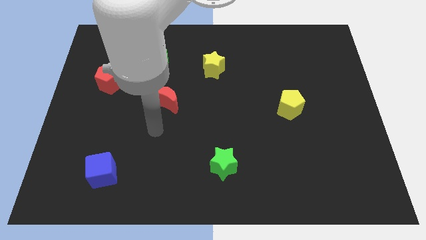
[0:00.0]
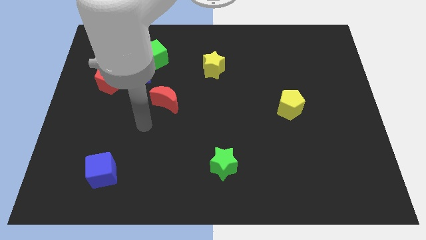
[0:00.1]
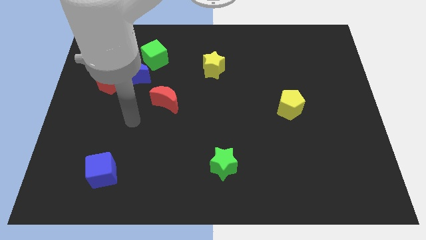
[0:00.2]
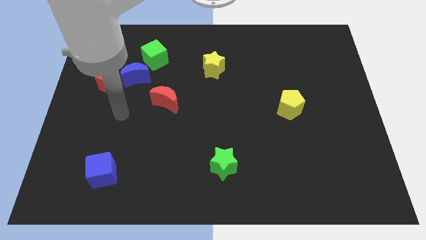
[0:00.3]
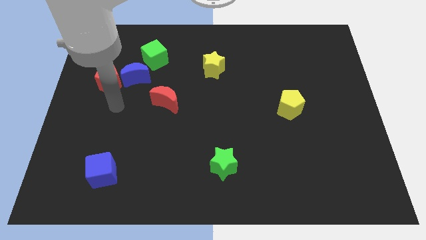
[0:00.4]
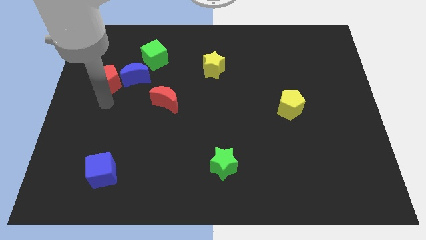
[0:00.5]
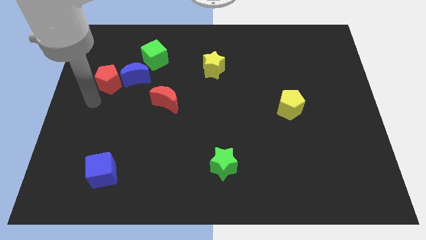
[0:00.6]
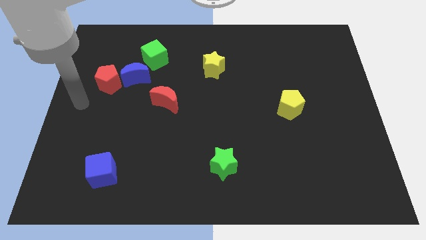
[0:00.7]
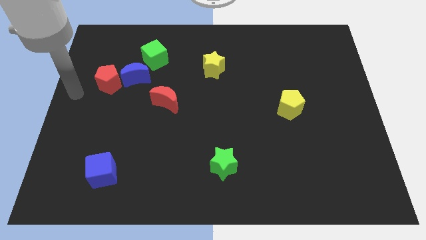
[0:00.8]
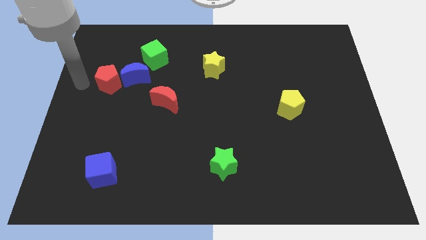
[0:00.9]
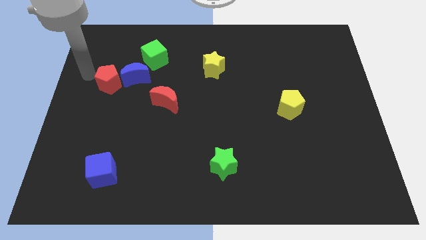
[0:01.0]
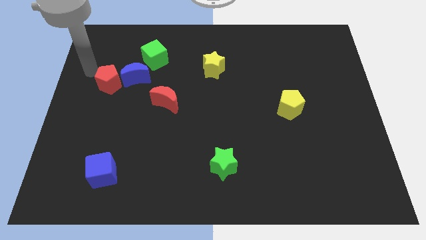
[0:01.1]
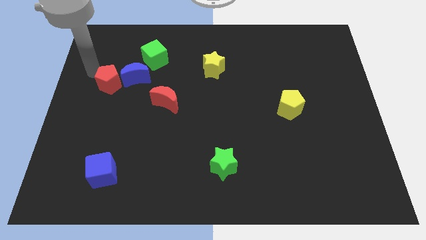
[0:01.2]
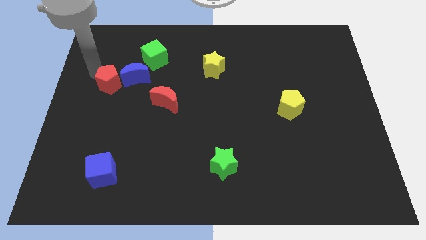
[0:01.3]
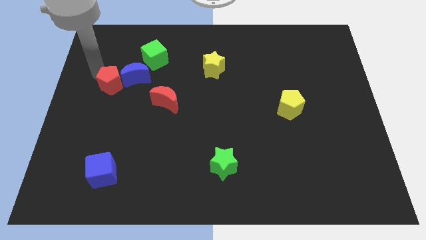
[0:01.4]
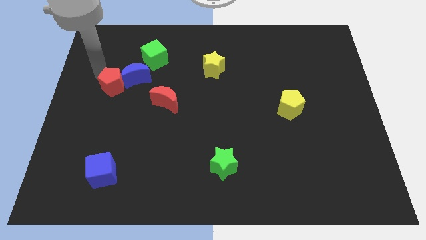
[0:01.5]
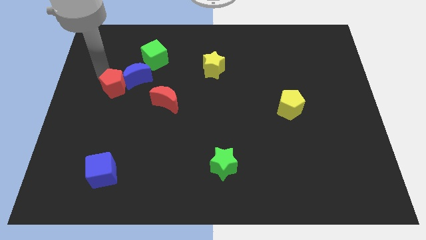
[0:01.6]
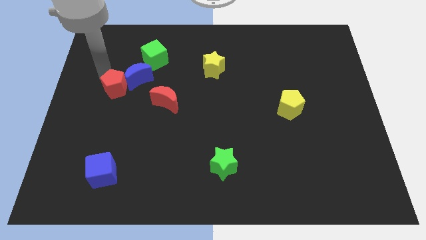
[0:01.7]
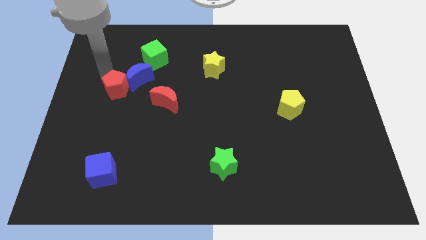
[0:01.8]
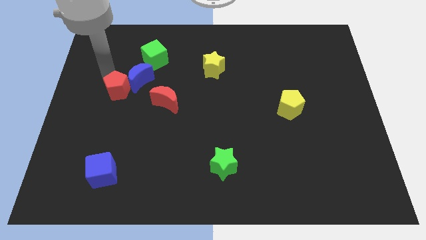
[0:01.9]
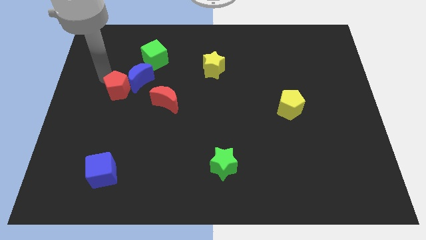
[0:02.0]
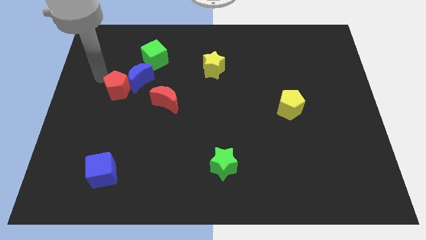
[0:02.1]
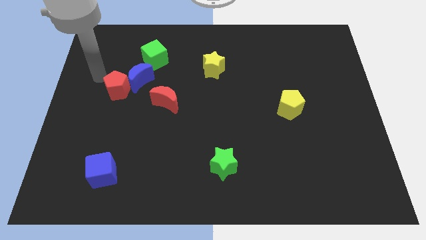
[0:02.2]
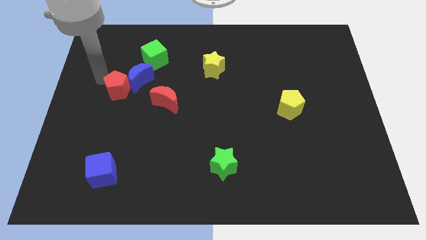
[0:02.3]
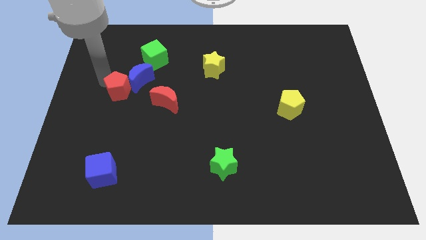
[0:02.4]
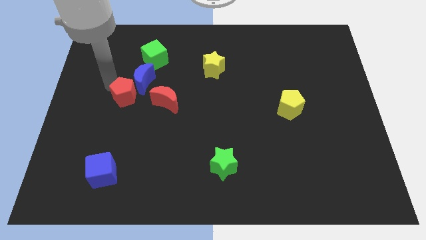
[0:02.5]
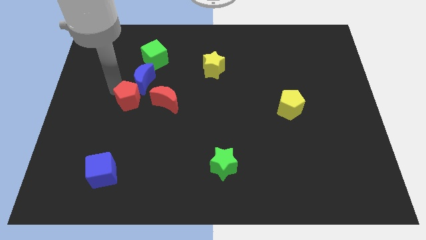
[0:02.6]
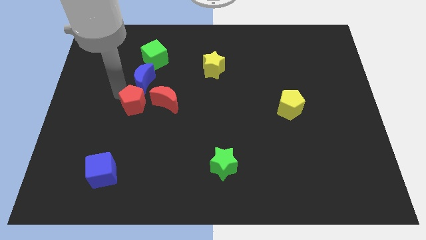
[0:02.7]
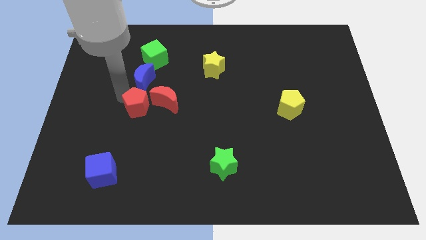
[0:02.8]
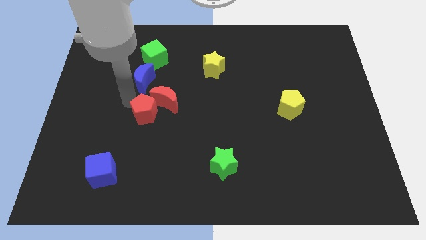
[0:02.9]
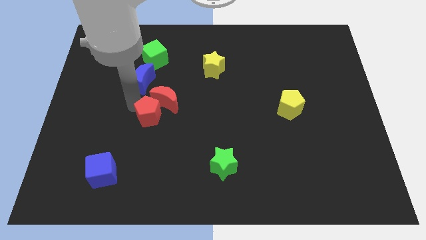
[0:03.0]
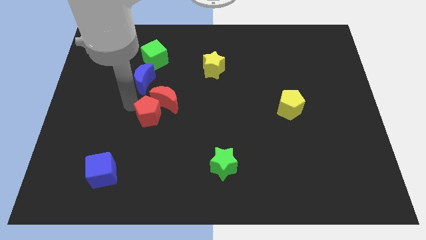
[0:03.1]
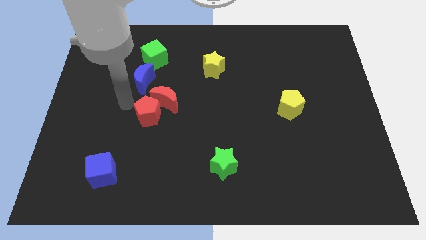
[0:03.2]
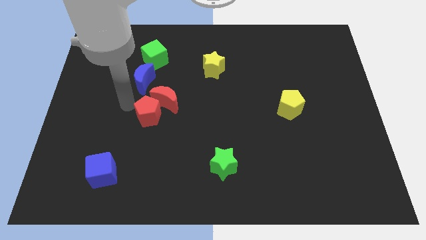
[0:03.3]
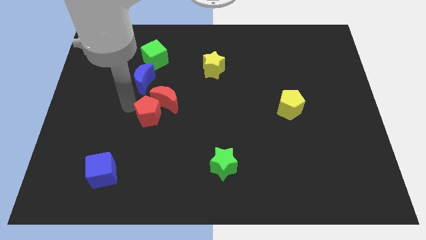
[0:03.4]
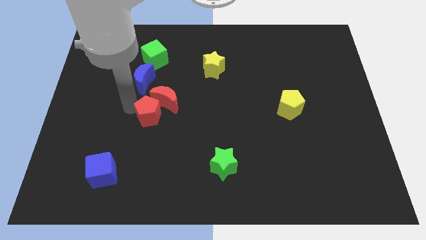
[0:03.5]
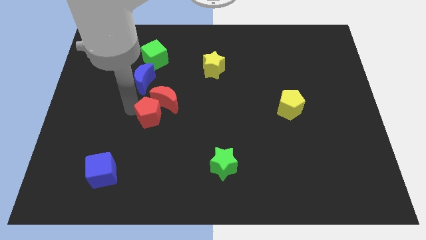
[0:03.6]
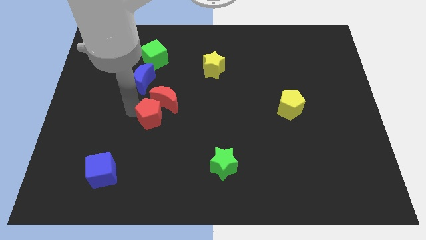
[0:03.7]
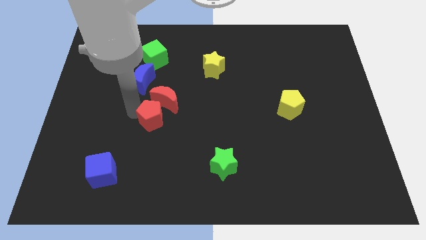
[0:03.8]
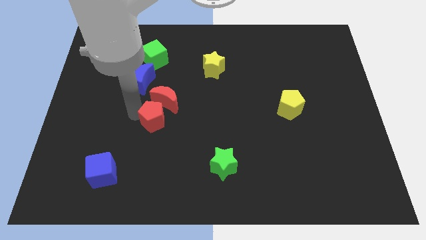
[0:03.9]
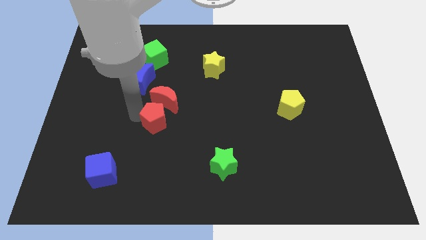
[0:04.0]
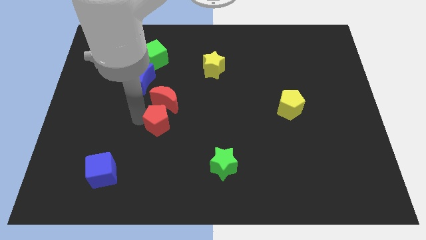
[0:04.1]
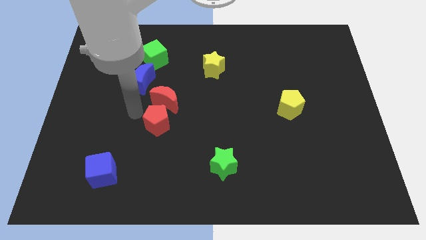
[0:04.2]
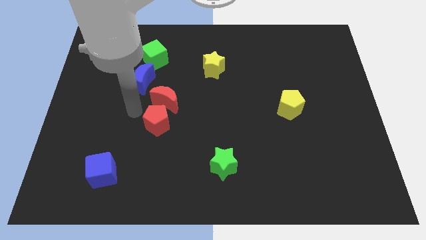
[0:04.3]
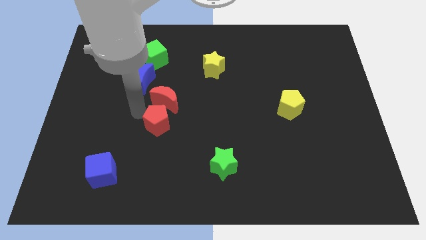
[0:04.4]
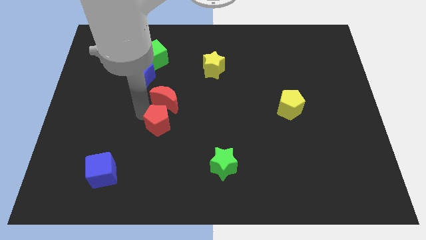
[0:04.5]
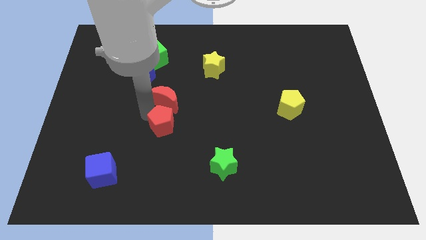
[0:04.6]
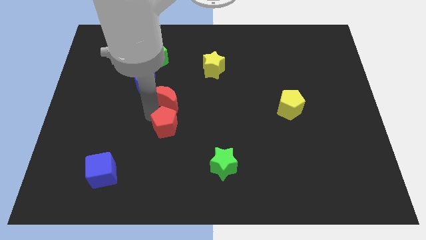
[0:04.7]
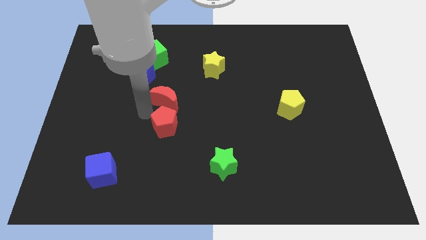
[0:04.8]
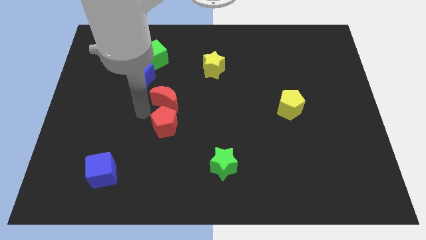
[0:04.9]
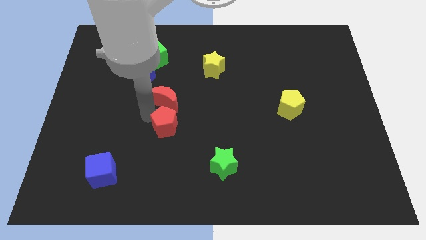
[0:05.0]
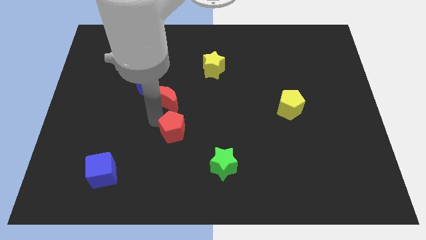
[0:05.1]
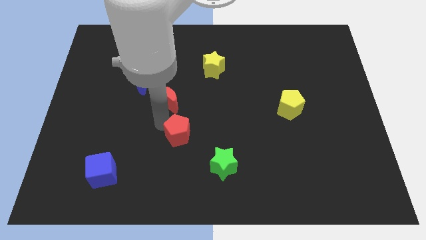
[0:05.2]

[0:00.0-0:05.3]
slide the red pentagon to the top left side of the green star

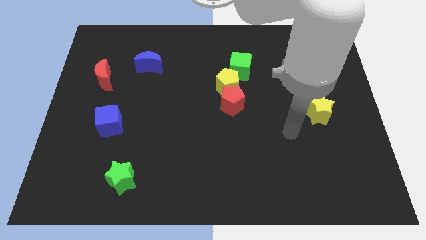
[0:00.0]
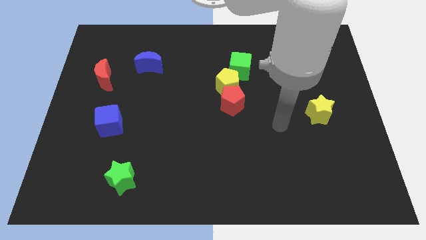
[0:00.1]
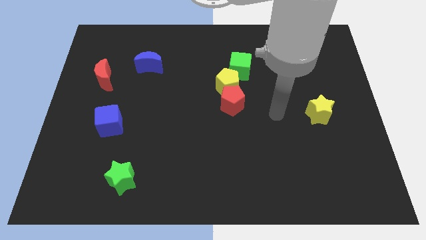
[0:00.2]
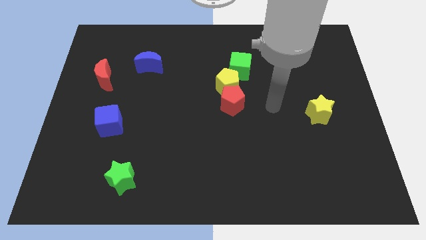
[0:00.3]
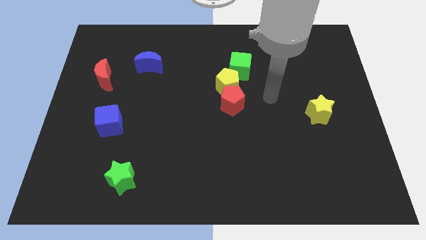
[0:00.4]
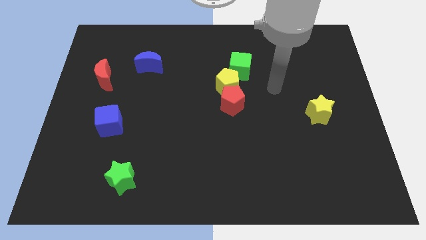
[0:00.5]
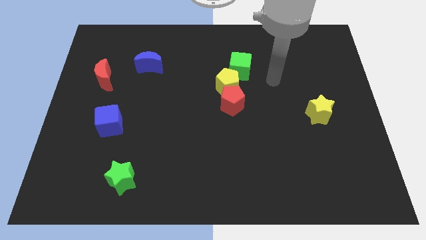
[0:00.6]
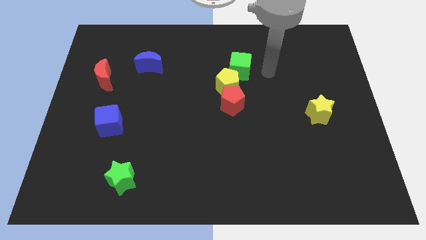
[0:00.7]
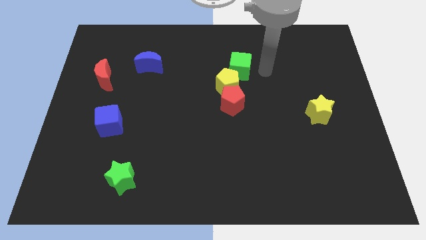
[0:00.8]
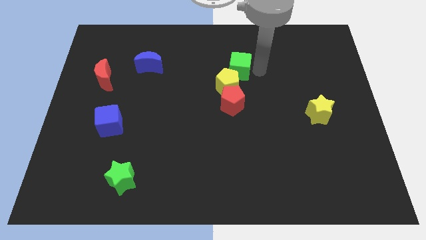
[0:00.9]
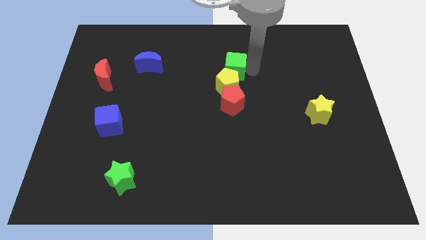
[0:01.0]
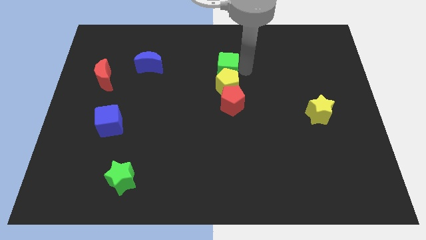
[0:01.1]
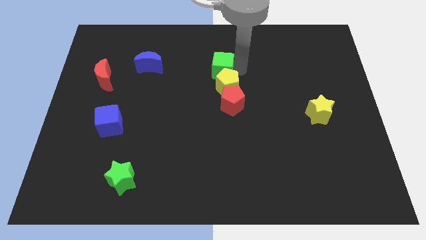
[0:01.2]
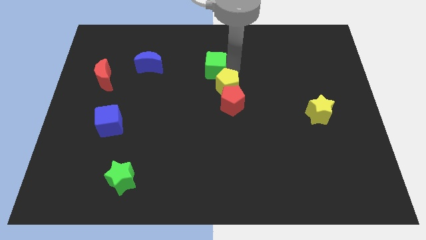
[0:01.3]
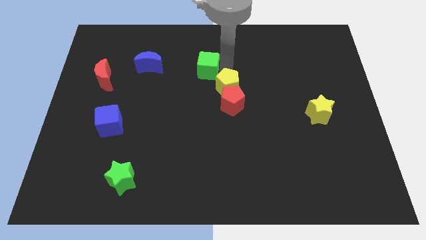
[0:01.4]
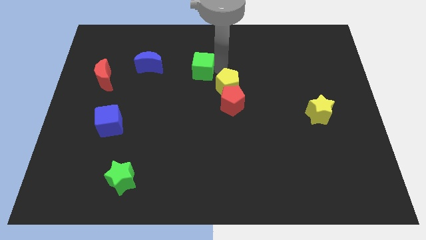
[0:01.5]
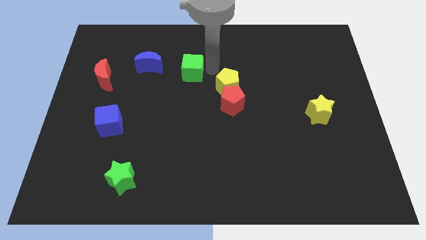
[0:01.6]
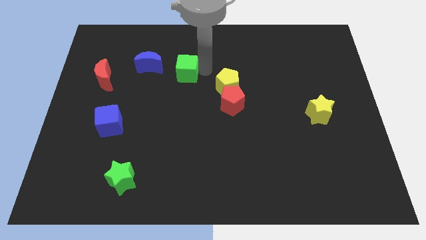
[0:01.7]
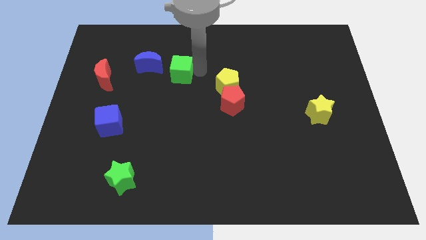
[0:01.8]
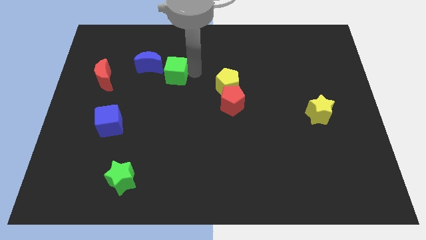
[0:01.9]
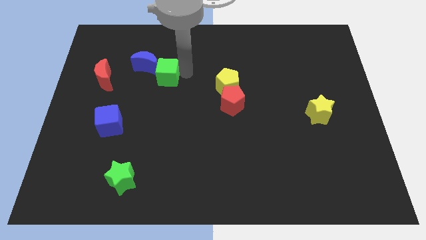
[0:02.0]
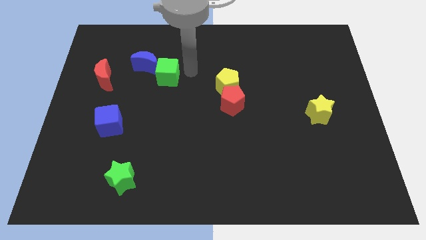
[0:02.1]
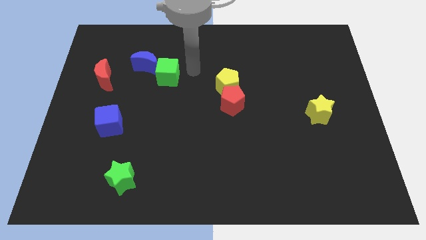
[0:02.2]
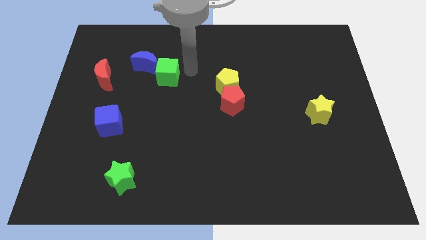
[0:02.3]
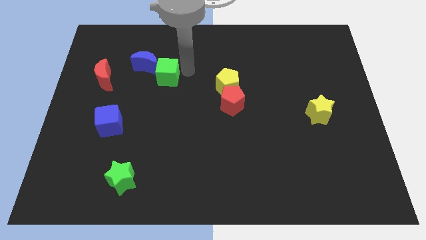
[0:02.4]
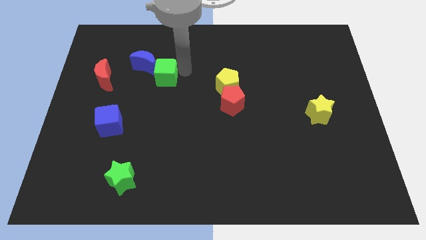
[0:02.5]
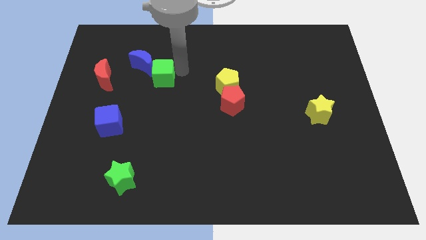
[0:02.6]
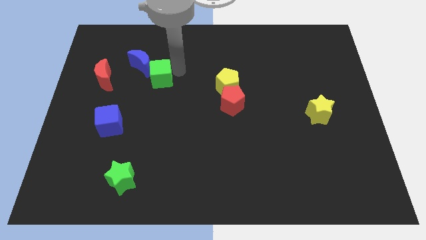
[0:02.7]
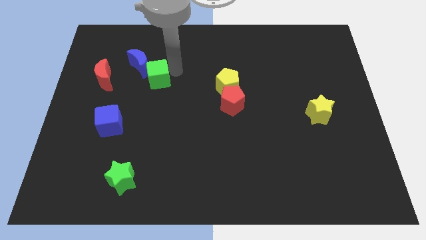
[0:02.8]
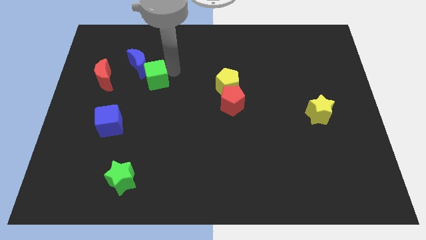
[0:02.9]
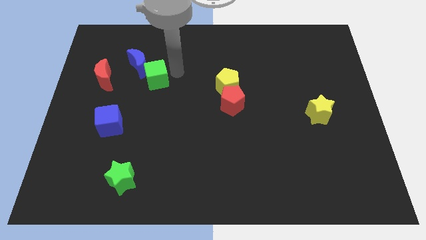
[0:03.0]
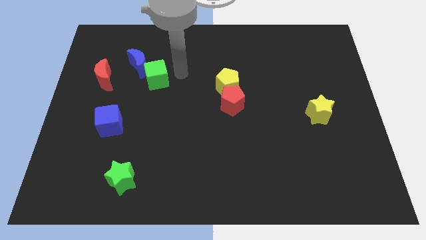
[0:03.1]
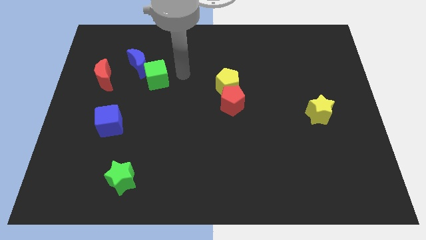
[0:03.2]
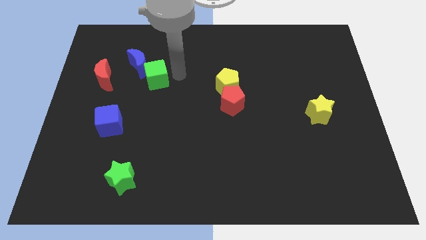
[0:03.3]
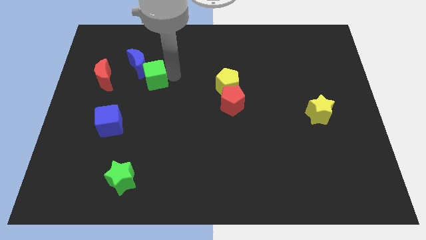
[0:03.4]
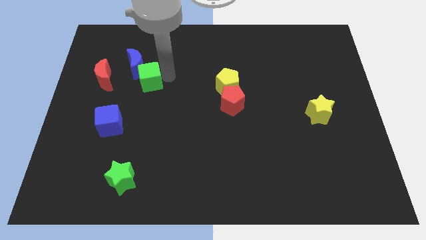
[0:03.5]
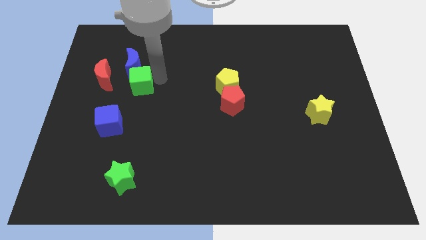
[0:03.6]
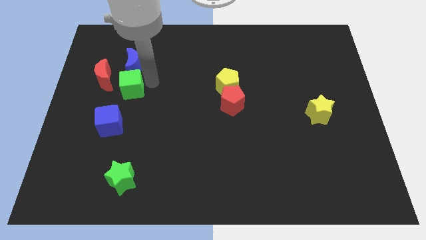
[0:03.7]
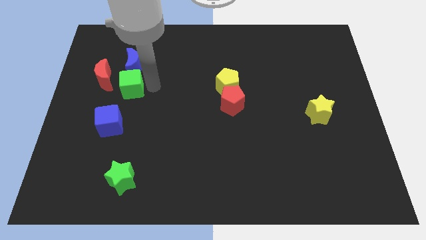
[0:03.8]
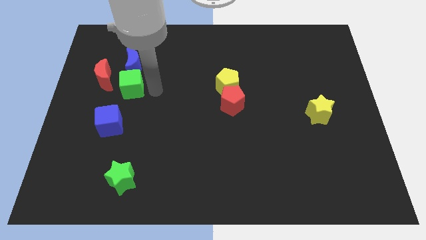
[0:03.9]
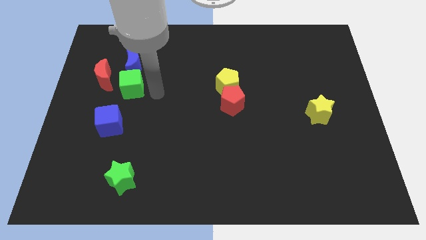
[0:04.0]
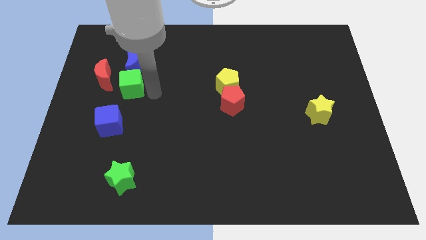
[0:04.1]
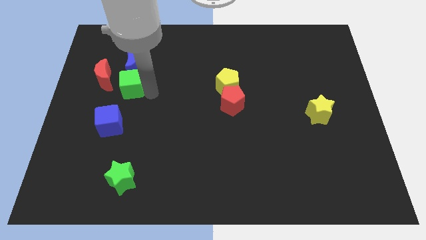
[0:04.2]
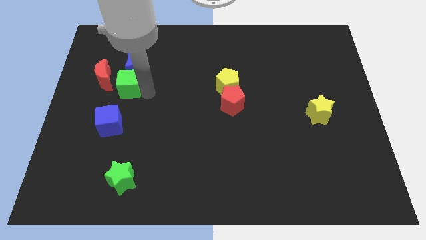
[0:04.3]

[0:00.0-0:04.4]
push the green cube to the bottom left of the blue moon
